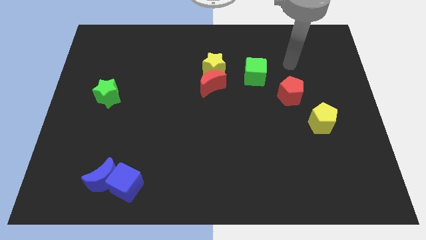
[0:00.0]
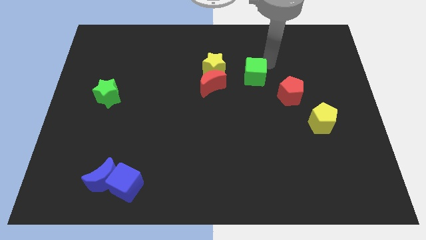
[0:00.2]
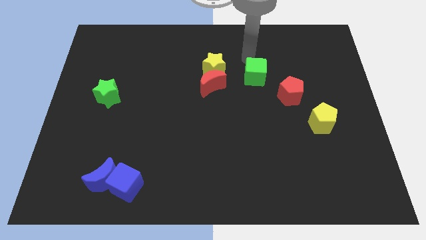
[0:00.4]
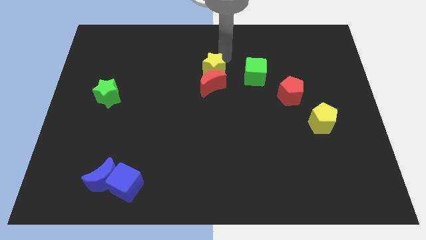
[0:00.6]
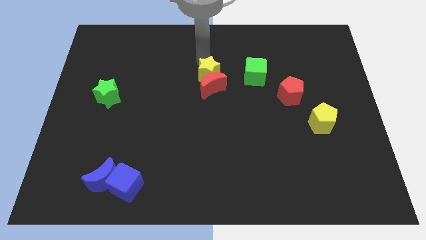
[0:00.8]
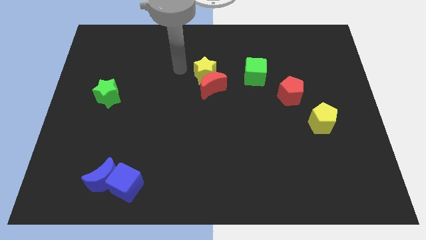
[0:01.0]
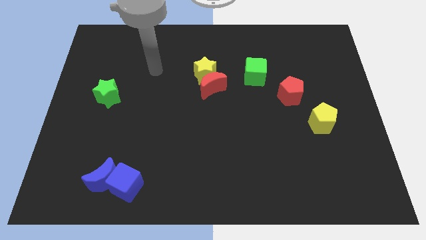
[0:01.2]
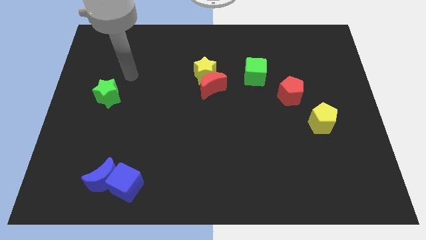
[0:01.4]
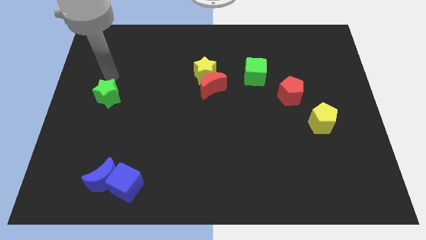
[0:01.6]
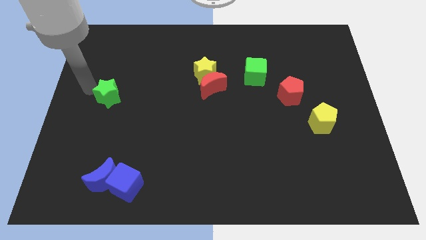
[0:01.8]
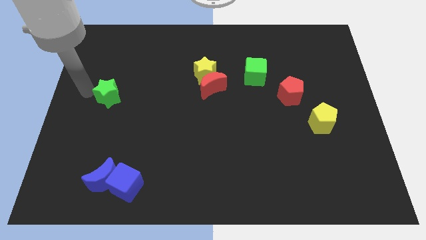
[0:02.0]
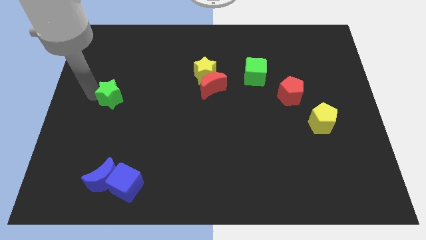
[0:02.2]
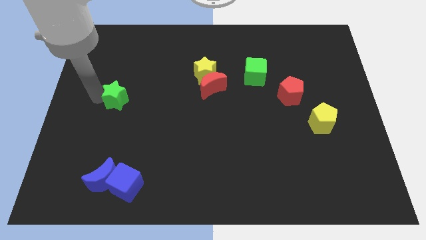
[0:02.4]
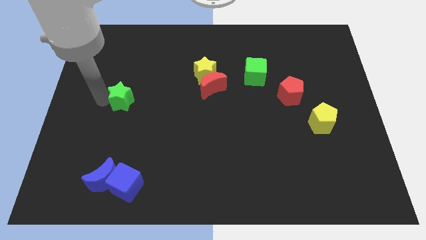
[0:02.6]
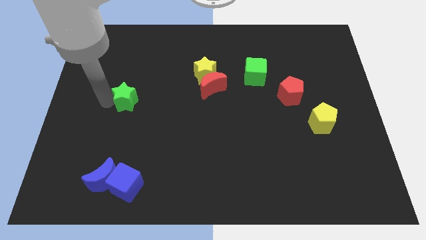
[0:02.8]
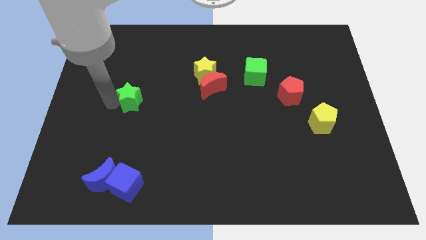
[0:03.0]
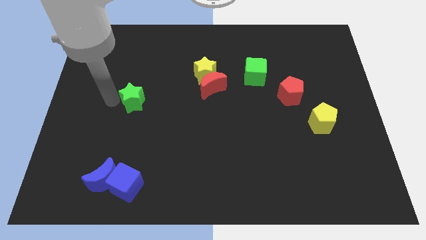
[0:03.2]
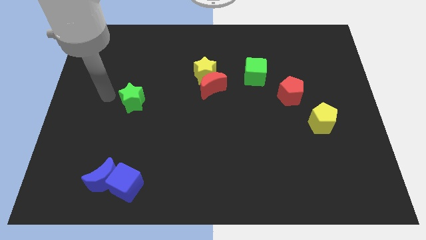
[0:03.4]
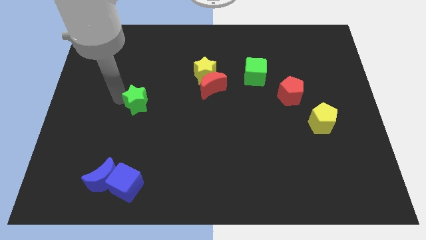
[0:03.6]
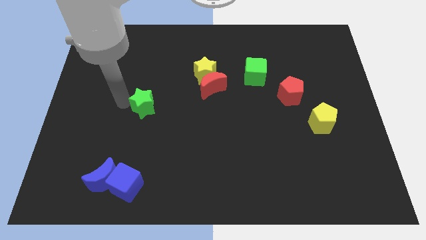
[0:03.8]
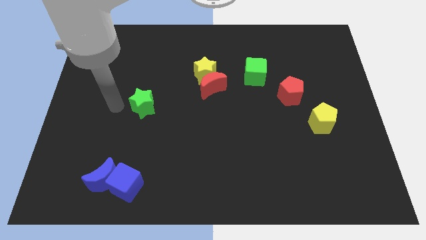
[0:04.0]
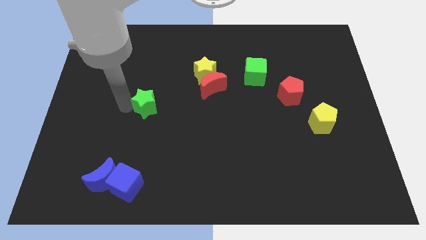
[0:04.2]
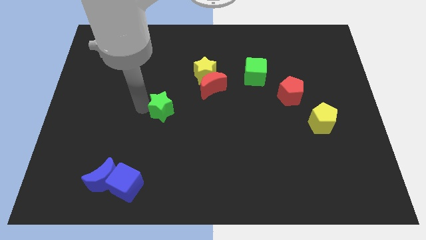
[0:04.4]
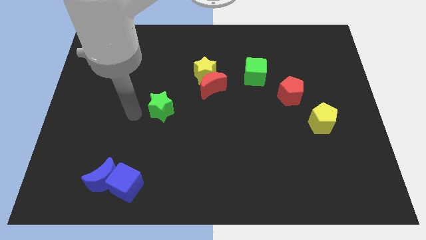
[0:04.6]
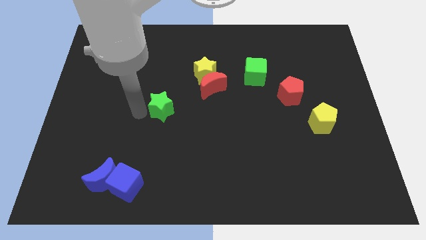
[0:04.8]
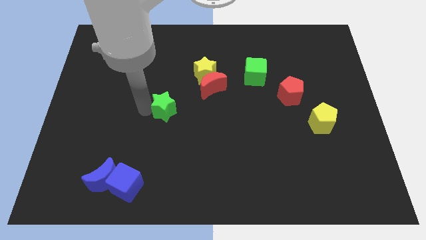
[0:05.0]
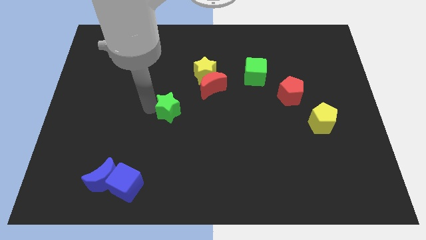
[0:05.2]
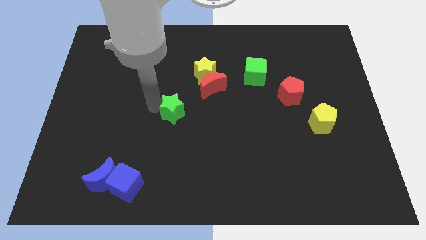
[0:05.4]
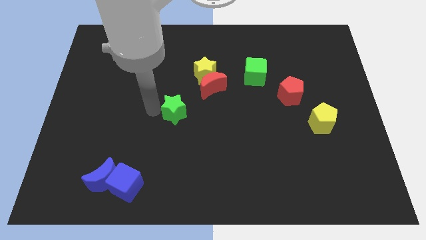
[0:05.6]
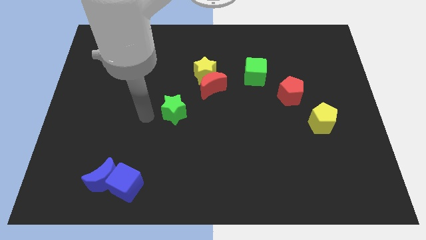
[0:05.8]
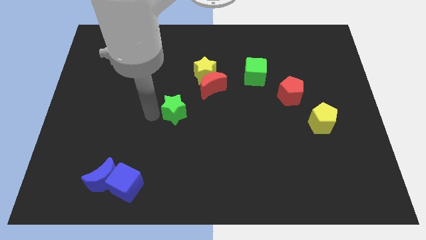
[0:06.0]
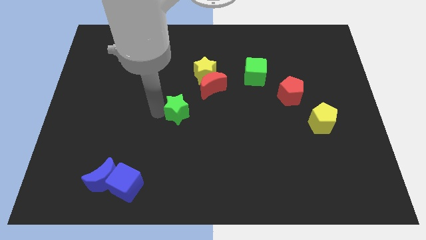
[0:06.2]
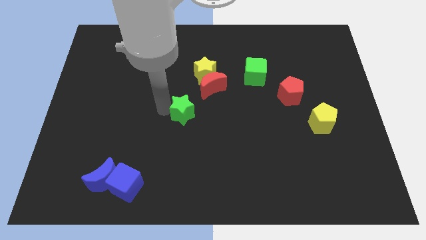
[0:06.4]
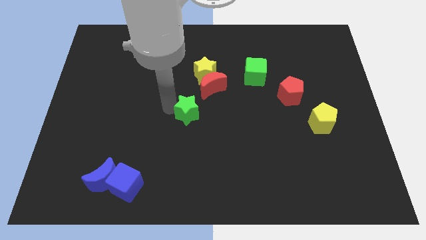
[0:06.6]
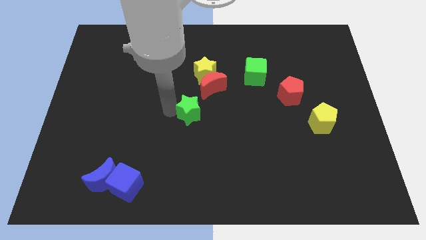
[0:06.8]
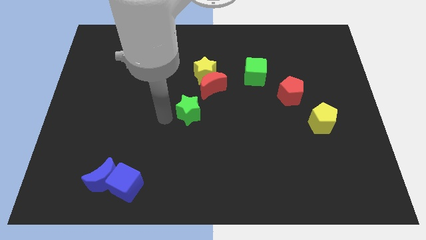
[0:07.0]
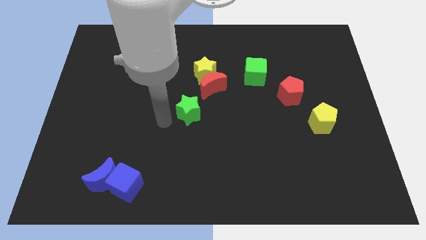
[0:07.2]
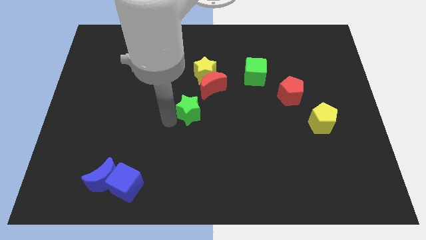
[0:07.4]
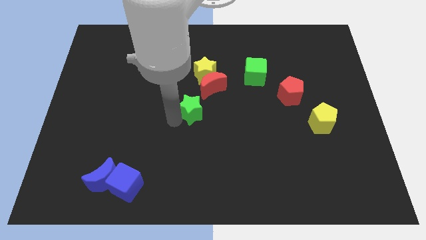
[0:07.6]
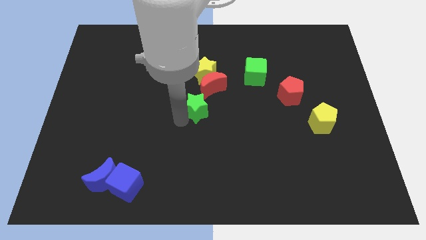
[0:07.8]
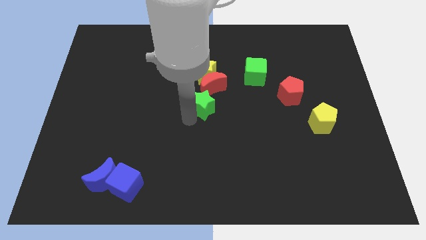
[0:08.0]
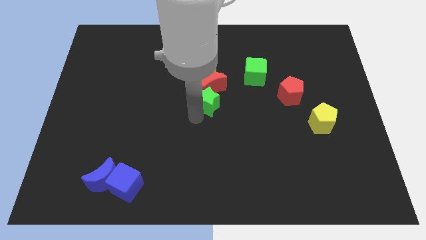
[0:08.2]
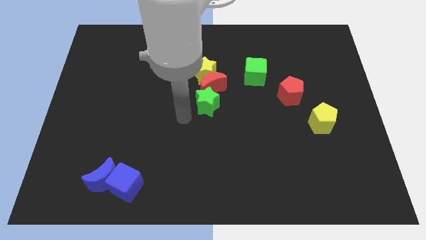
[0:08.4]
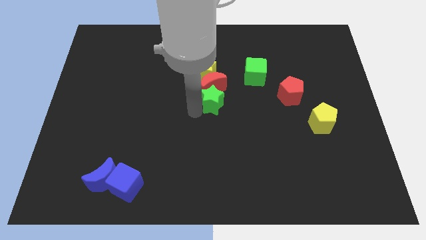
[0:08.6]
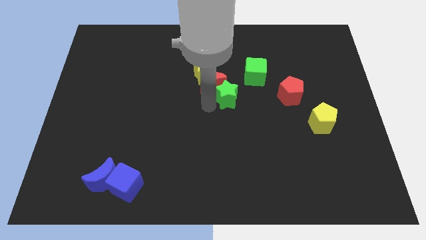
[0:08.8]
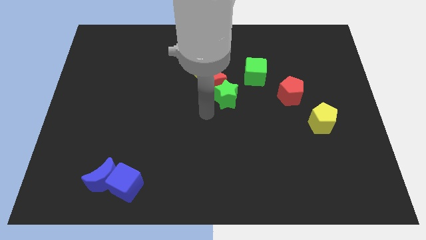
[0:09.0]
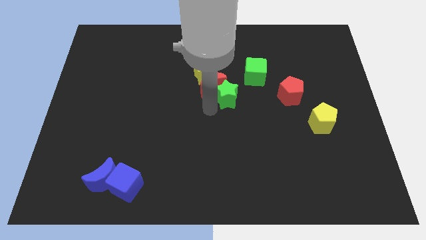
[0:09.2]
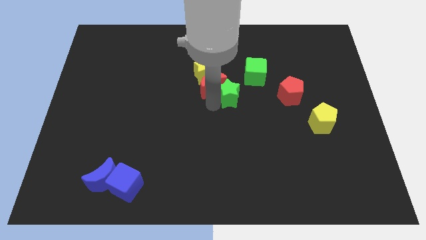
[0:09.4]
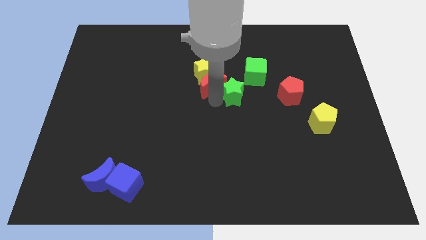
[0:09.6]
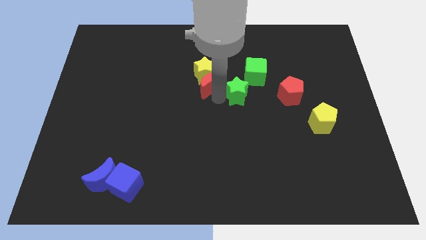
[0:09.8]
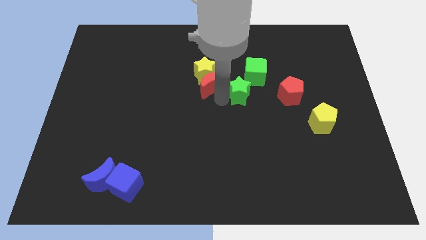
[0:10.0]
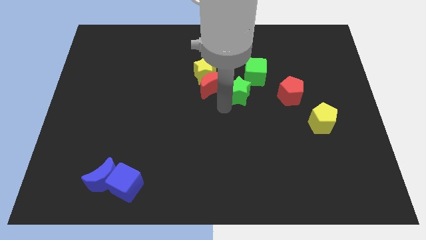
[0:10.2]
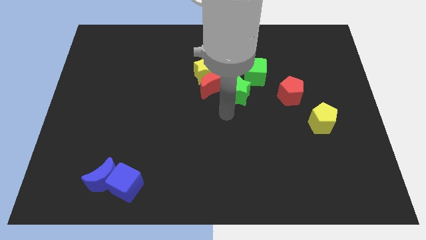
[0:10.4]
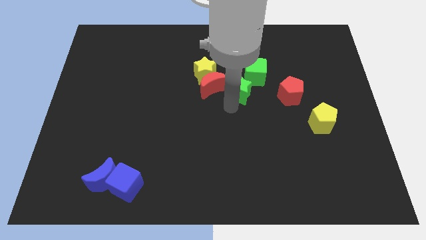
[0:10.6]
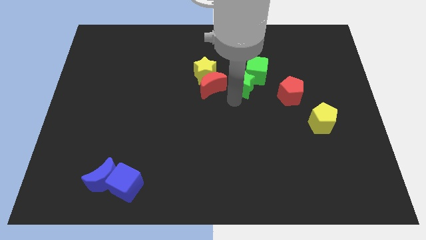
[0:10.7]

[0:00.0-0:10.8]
move the green star towards the green cube

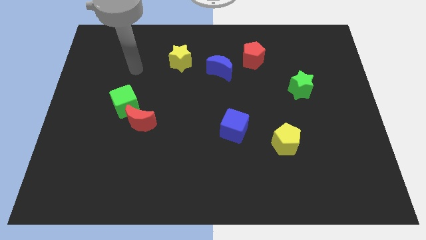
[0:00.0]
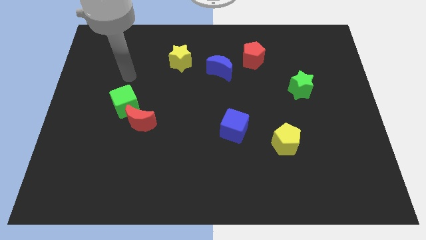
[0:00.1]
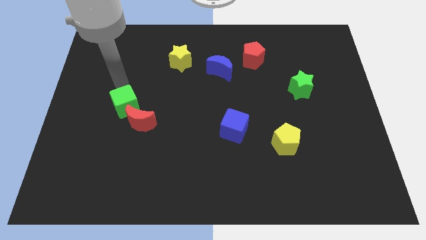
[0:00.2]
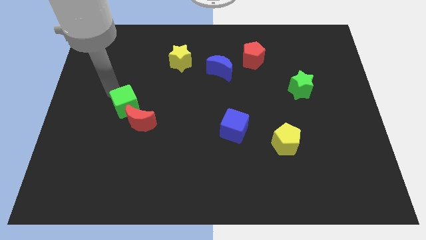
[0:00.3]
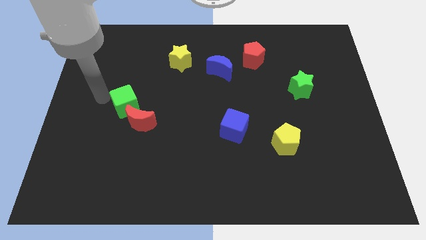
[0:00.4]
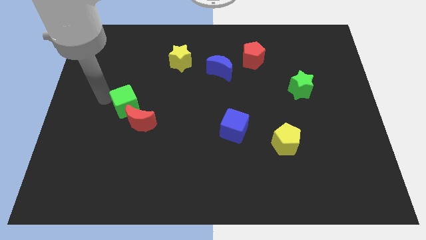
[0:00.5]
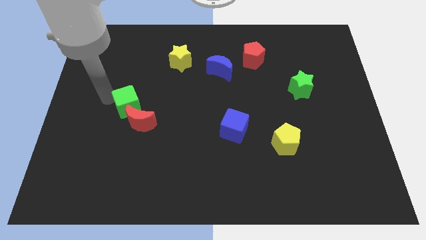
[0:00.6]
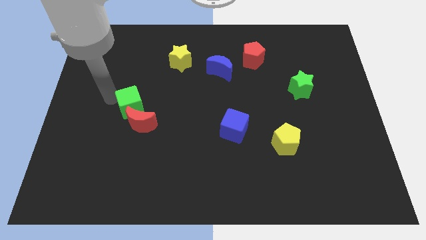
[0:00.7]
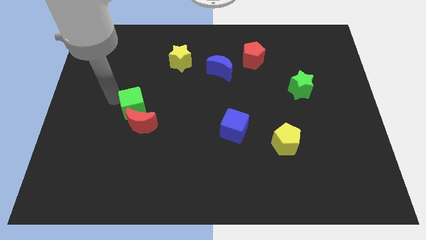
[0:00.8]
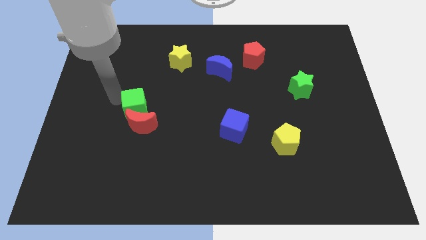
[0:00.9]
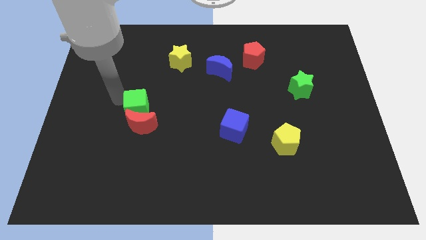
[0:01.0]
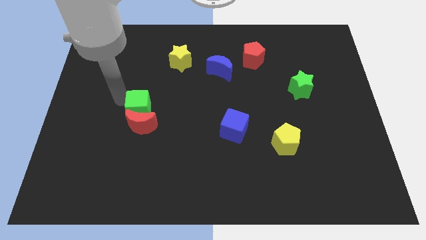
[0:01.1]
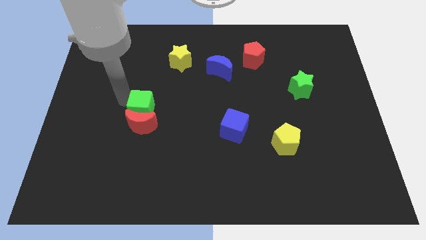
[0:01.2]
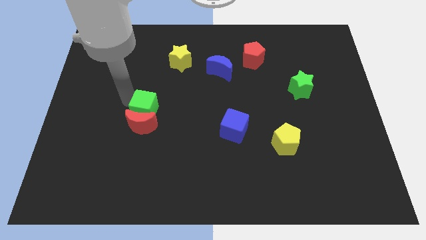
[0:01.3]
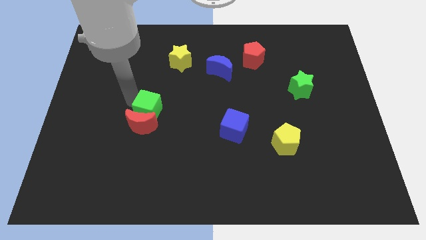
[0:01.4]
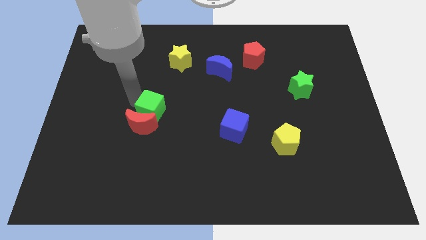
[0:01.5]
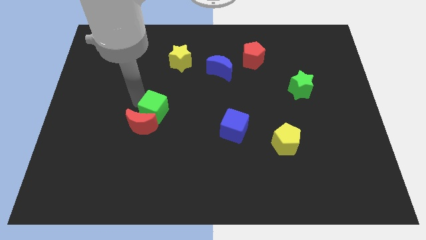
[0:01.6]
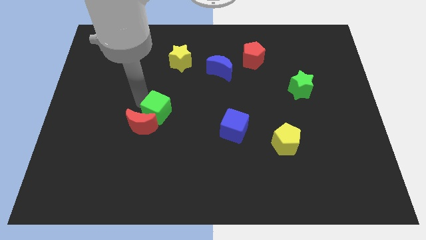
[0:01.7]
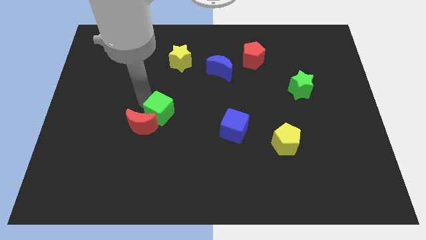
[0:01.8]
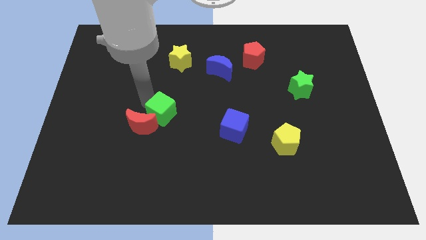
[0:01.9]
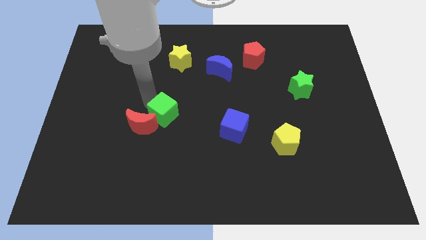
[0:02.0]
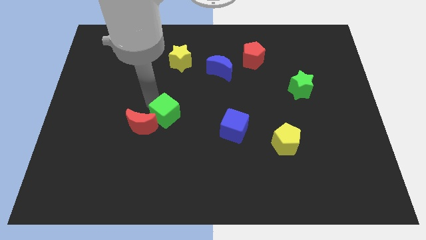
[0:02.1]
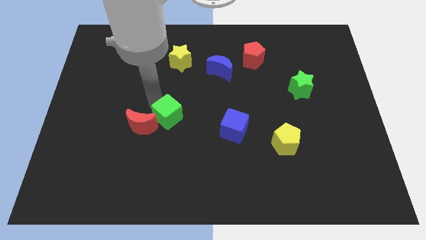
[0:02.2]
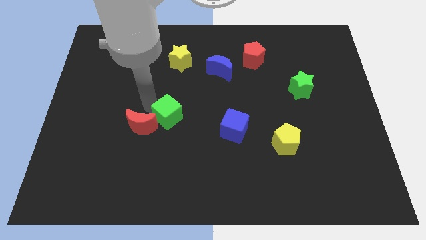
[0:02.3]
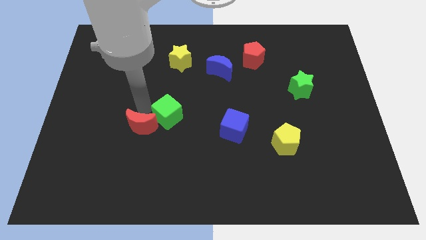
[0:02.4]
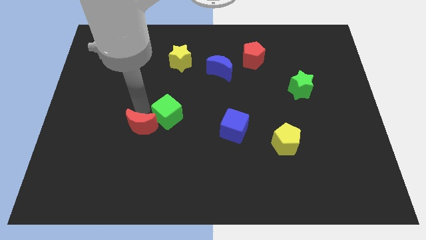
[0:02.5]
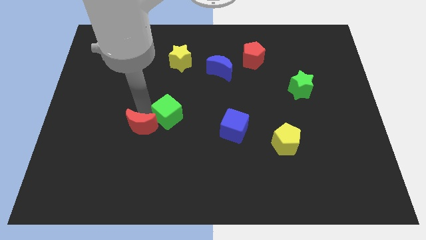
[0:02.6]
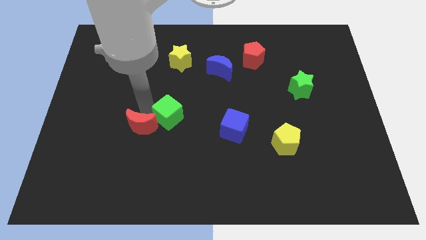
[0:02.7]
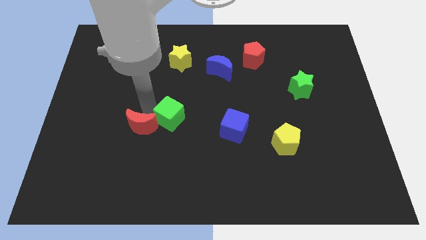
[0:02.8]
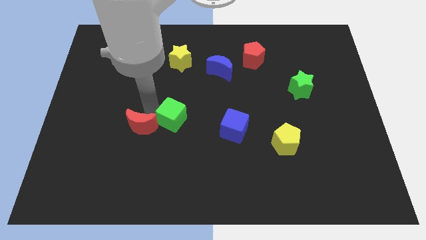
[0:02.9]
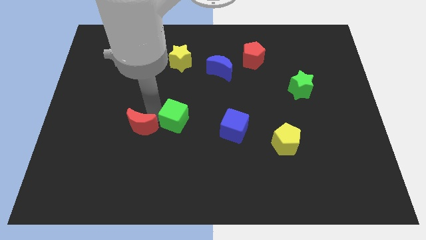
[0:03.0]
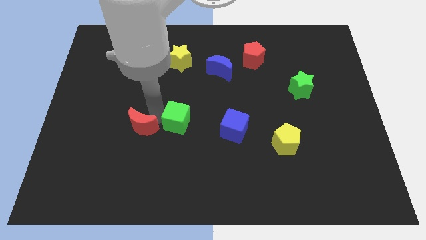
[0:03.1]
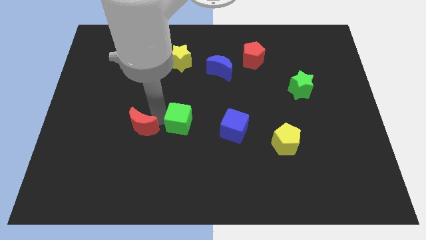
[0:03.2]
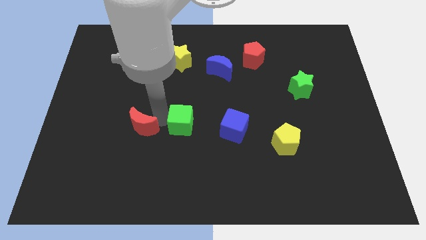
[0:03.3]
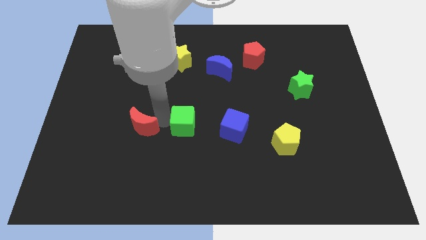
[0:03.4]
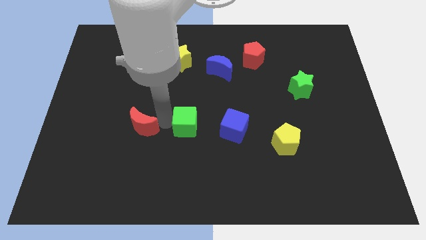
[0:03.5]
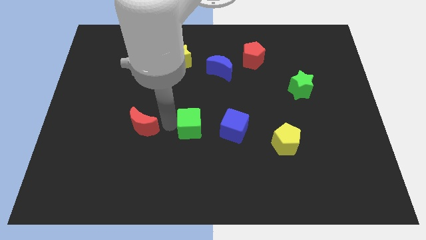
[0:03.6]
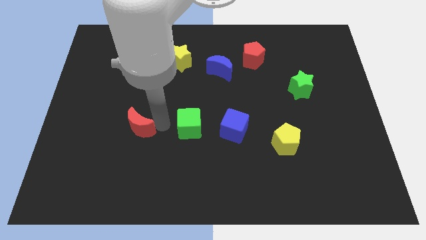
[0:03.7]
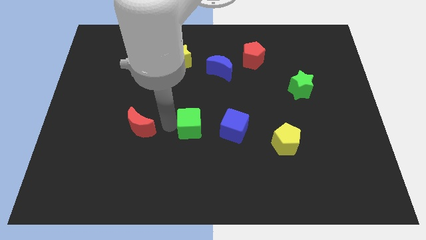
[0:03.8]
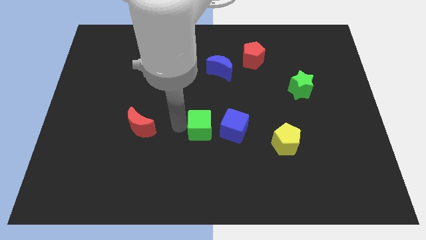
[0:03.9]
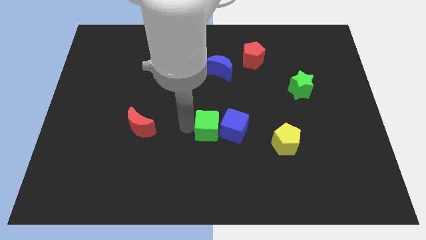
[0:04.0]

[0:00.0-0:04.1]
push the green cube next to the blue cube
